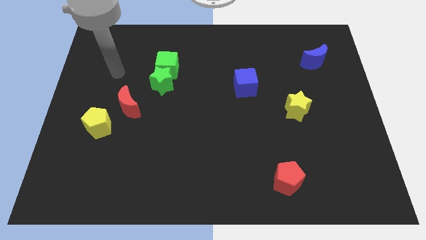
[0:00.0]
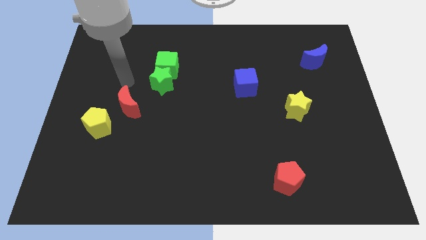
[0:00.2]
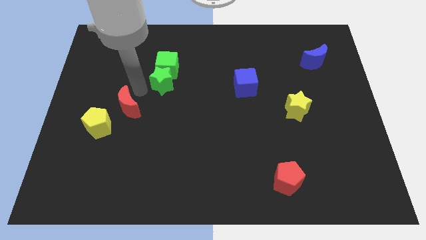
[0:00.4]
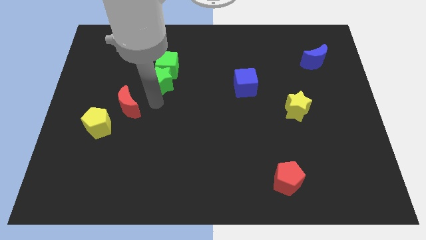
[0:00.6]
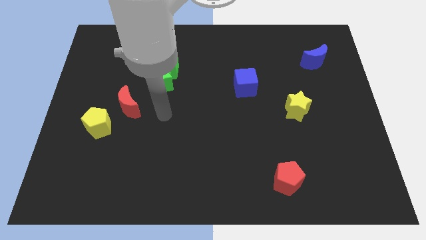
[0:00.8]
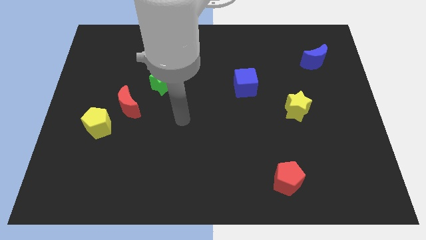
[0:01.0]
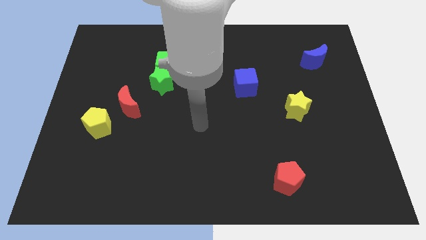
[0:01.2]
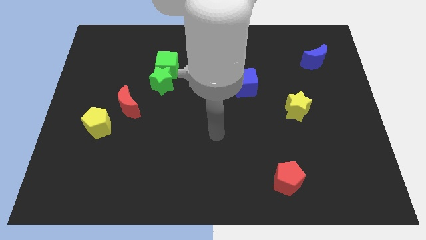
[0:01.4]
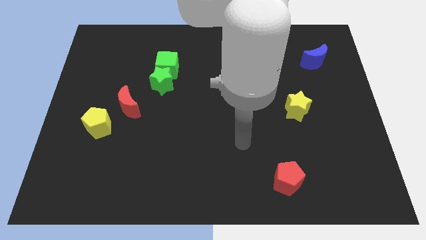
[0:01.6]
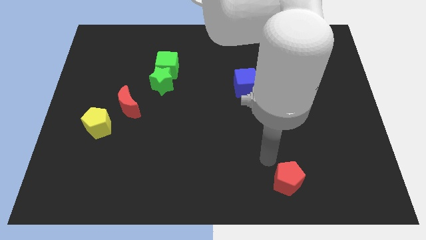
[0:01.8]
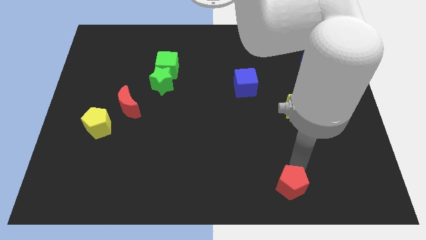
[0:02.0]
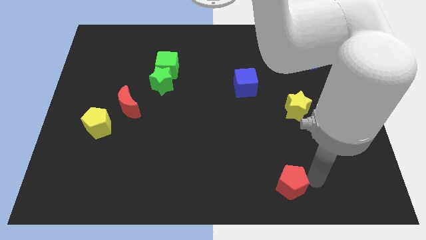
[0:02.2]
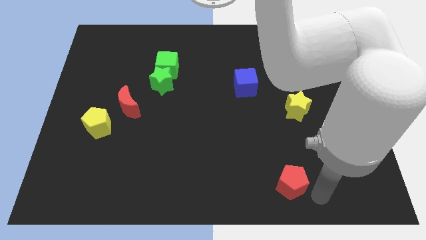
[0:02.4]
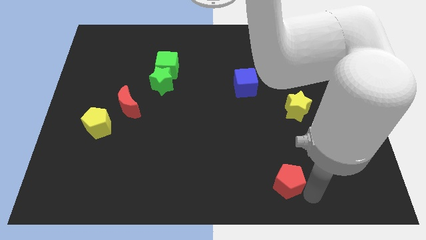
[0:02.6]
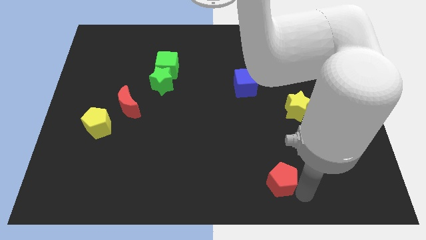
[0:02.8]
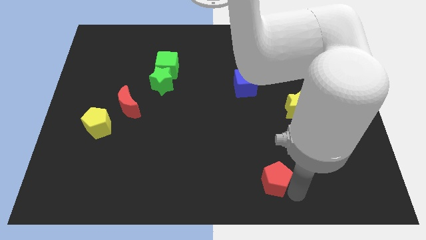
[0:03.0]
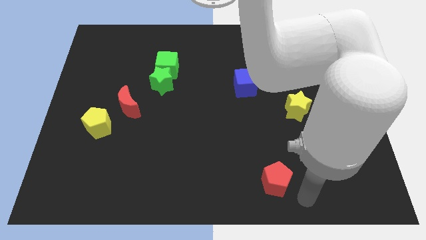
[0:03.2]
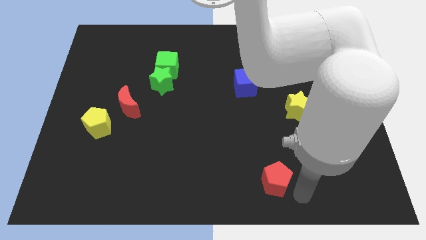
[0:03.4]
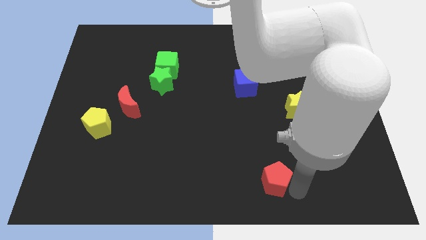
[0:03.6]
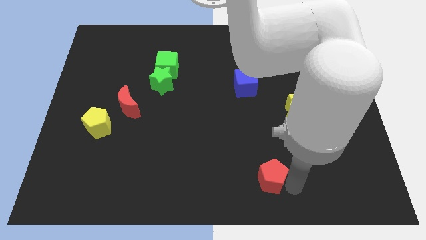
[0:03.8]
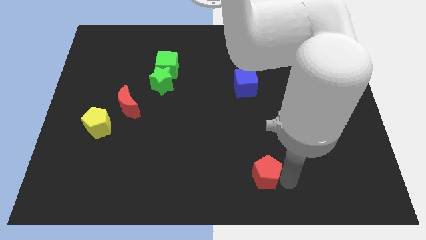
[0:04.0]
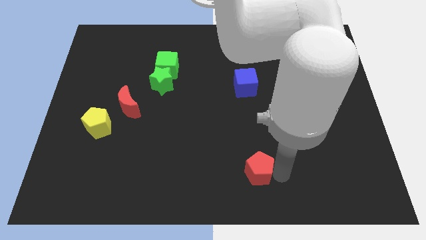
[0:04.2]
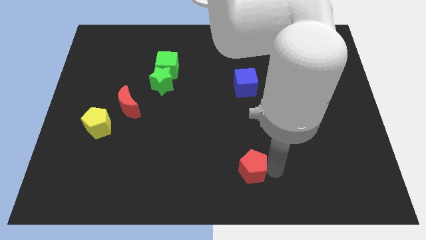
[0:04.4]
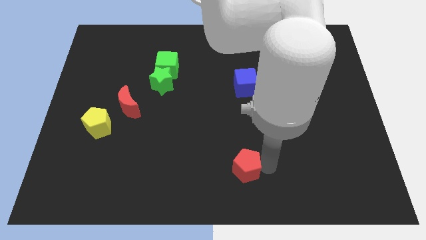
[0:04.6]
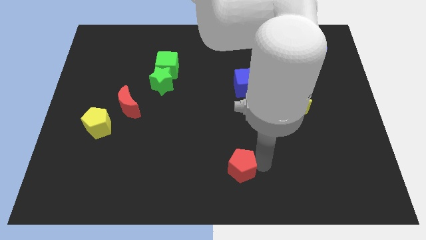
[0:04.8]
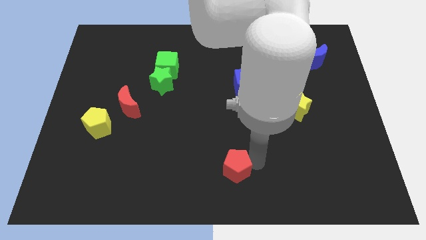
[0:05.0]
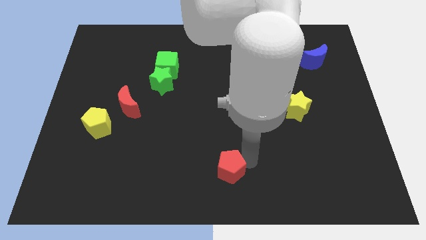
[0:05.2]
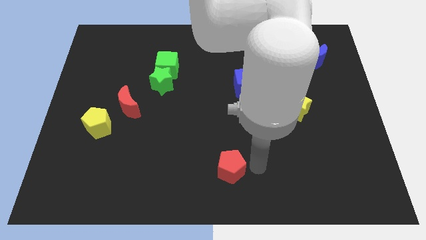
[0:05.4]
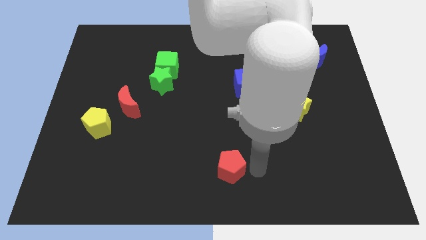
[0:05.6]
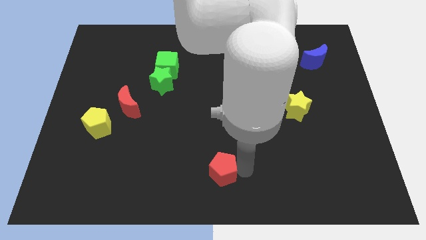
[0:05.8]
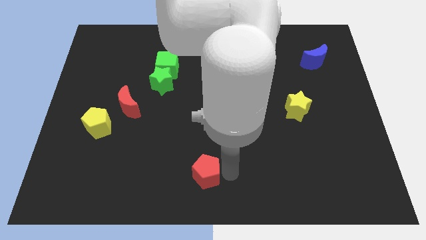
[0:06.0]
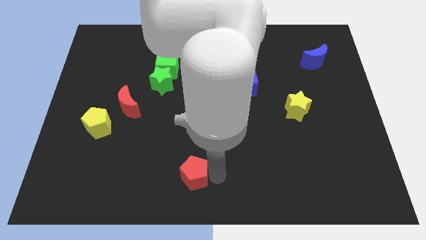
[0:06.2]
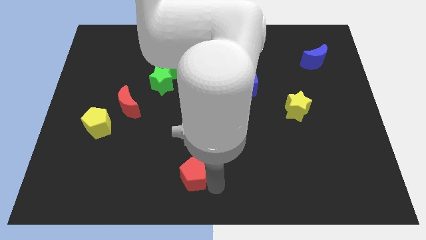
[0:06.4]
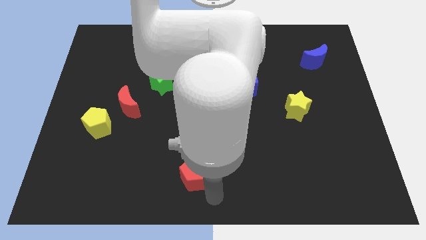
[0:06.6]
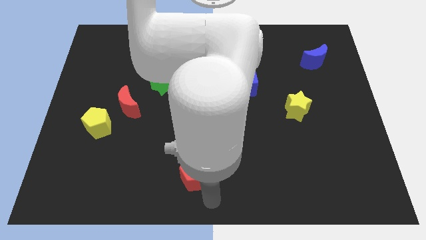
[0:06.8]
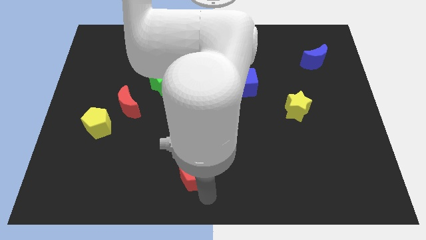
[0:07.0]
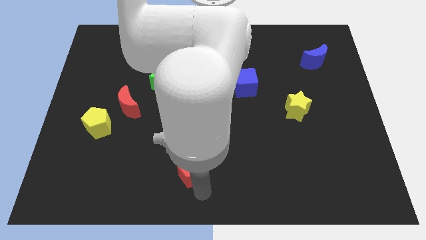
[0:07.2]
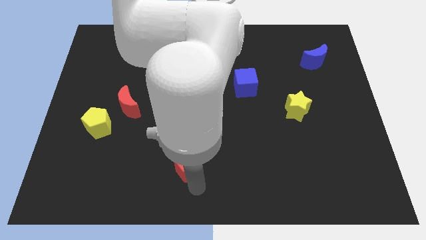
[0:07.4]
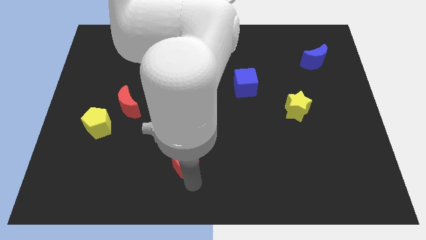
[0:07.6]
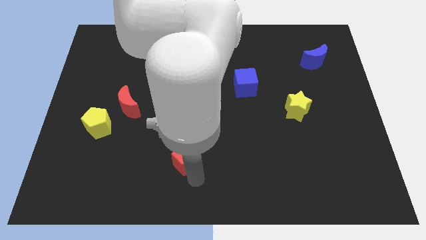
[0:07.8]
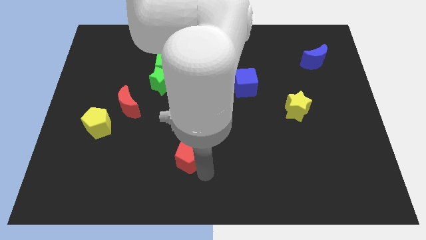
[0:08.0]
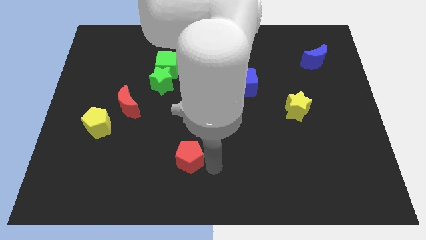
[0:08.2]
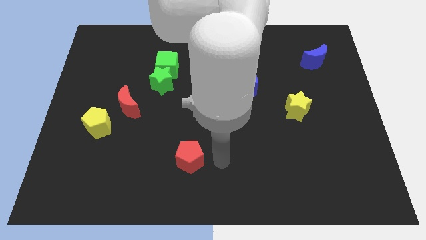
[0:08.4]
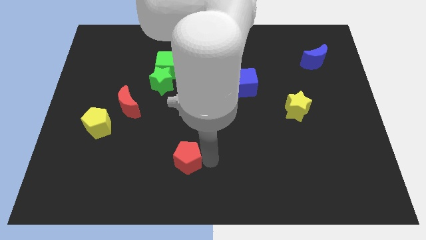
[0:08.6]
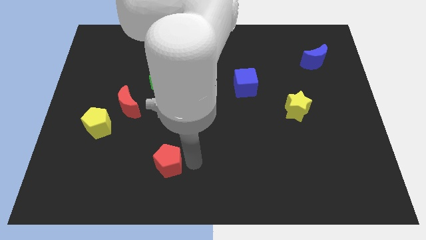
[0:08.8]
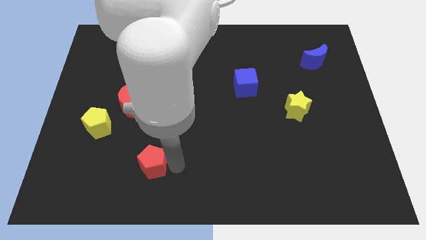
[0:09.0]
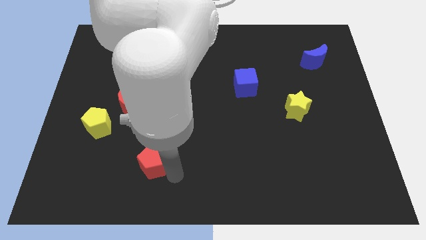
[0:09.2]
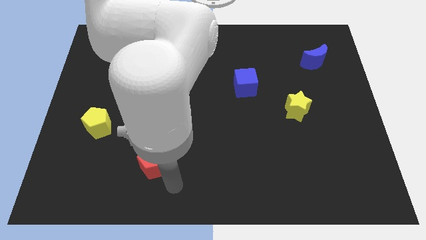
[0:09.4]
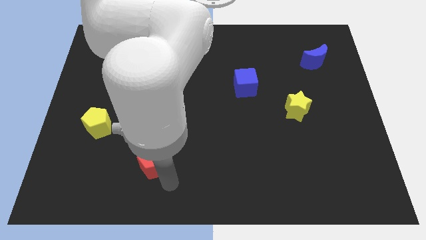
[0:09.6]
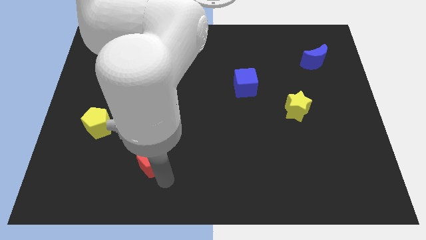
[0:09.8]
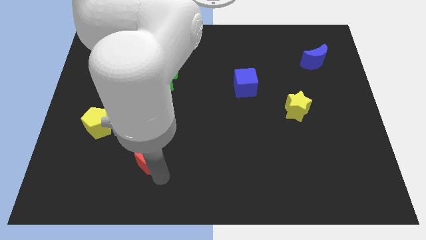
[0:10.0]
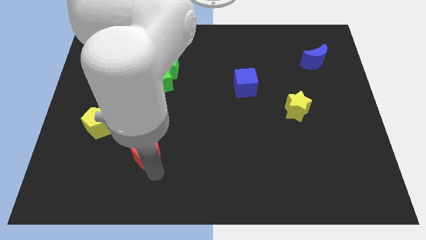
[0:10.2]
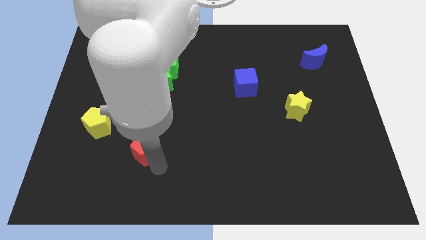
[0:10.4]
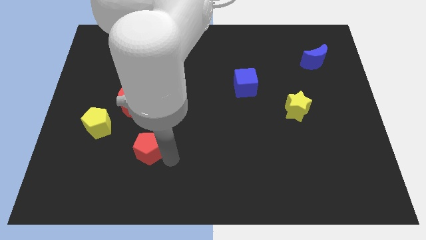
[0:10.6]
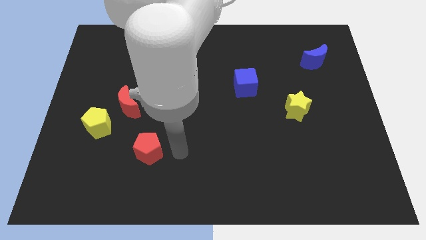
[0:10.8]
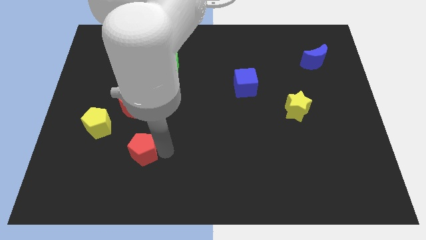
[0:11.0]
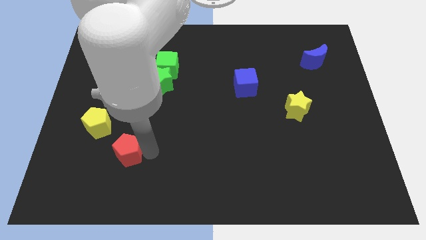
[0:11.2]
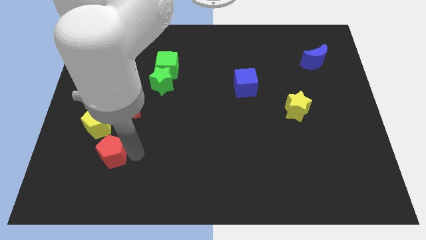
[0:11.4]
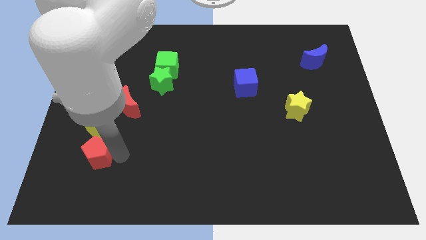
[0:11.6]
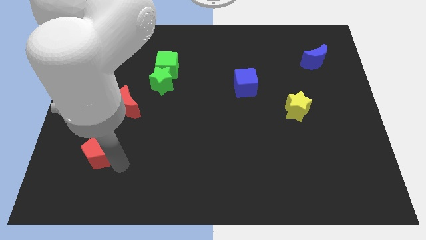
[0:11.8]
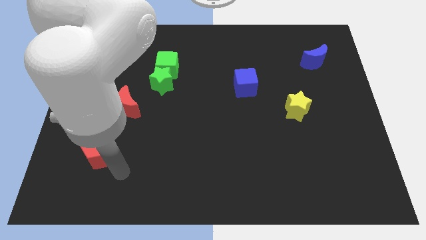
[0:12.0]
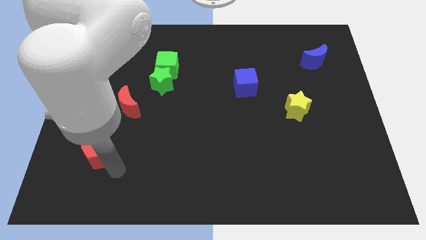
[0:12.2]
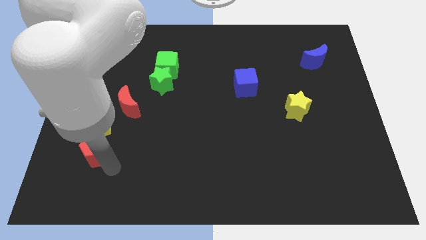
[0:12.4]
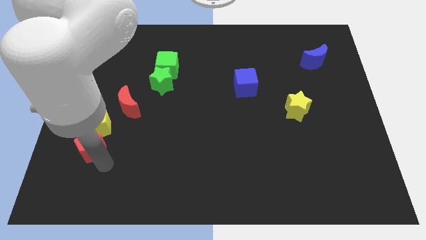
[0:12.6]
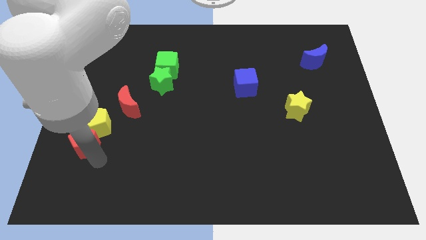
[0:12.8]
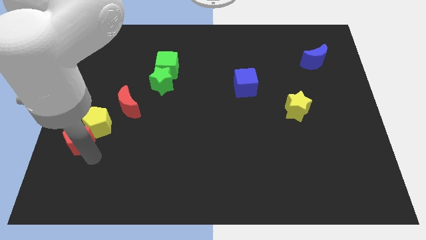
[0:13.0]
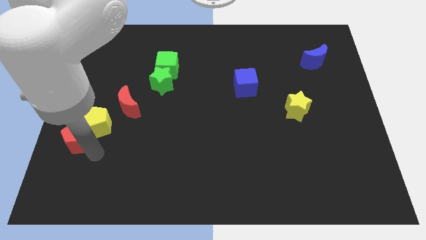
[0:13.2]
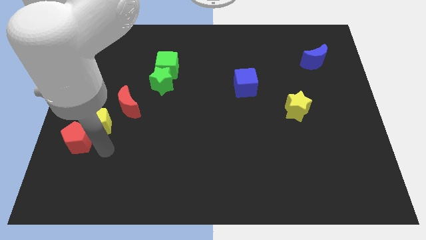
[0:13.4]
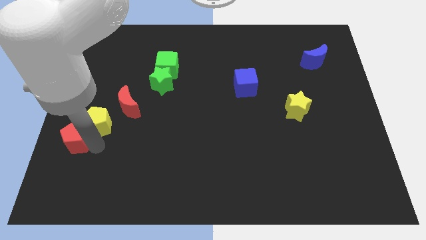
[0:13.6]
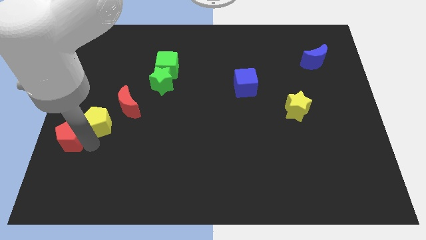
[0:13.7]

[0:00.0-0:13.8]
move the red pentagon to the left side of the board

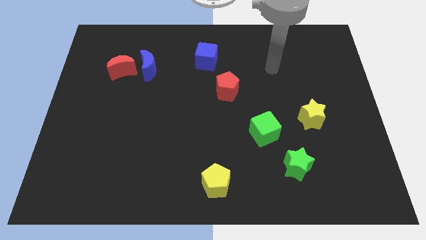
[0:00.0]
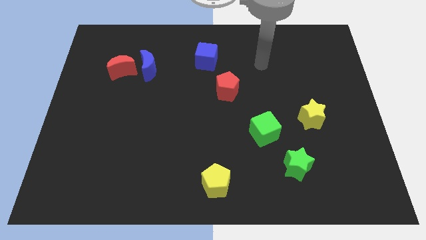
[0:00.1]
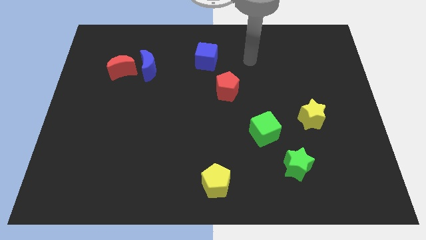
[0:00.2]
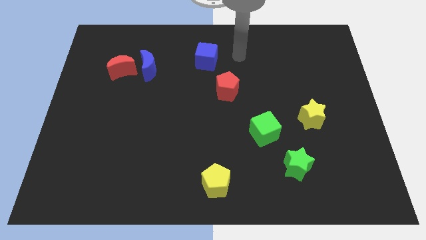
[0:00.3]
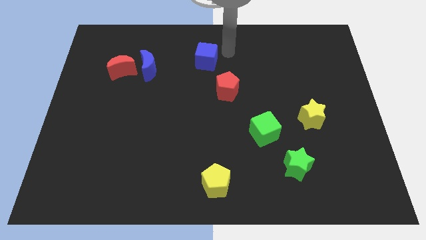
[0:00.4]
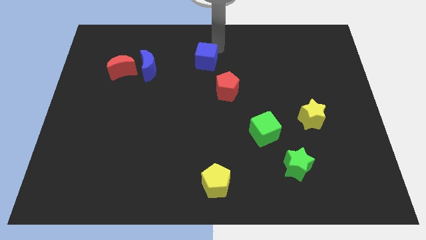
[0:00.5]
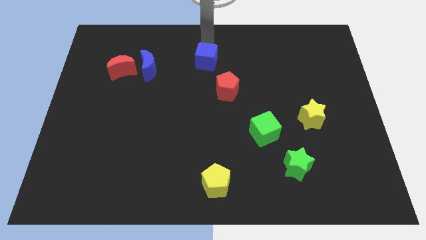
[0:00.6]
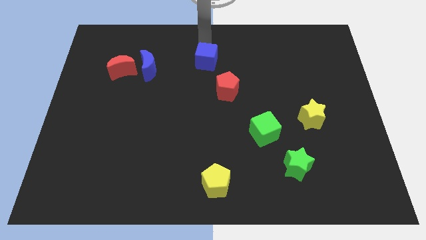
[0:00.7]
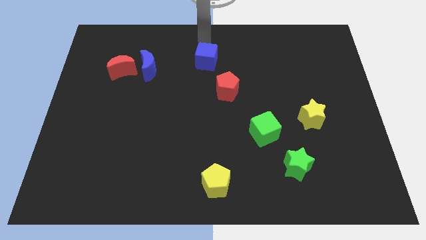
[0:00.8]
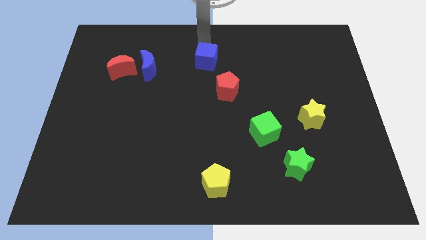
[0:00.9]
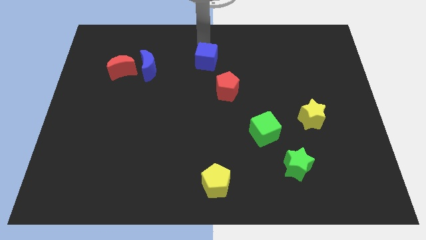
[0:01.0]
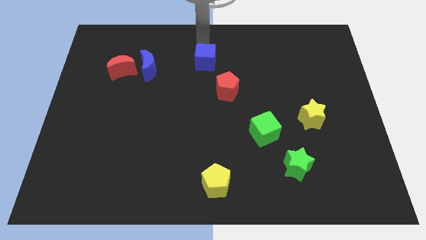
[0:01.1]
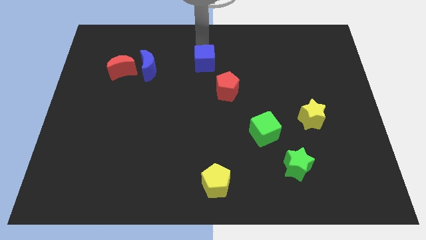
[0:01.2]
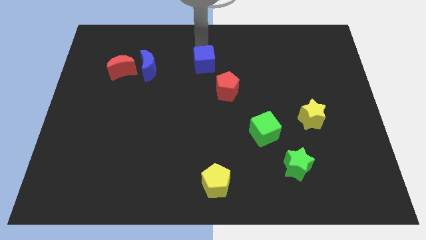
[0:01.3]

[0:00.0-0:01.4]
push the blue cube to the center of the board
